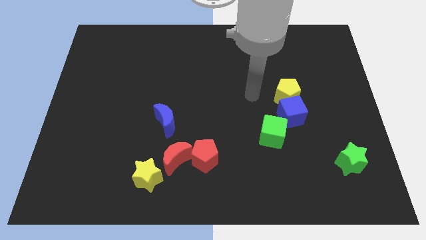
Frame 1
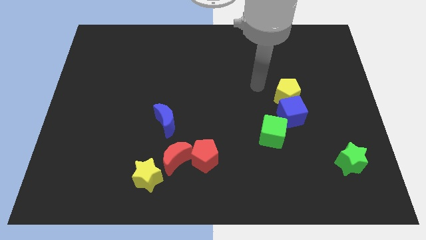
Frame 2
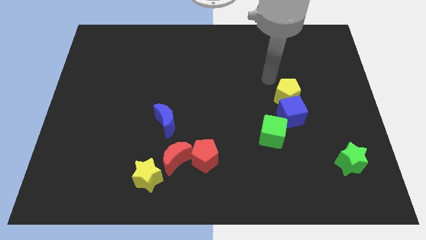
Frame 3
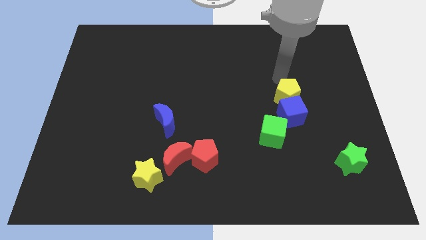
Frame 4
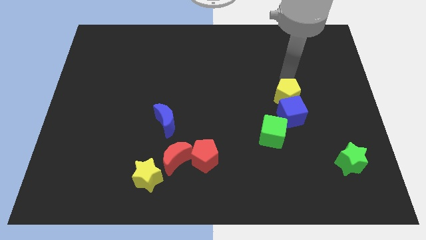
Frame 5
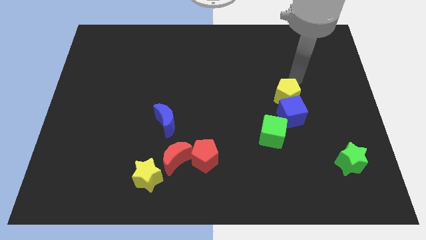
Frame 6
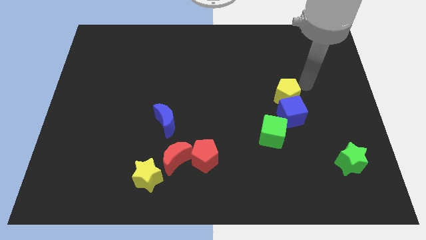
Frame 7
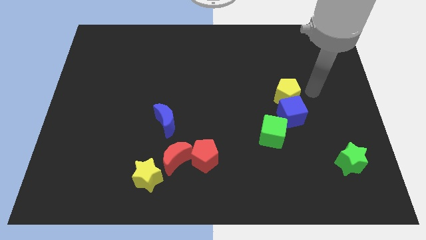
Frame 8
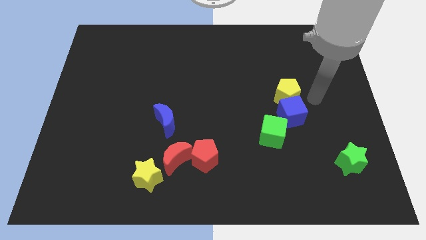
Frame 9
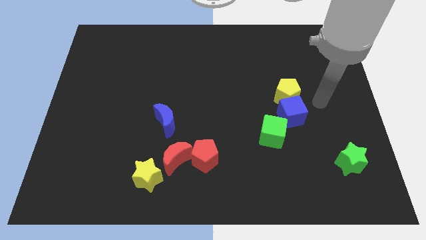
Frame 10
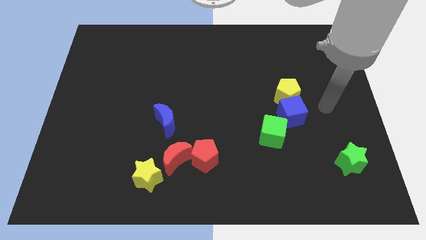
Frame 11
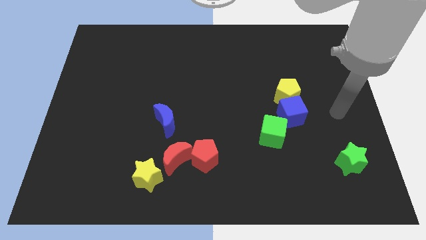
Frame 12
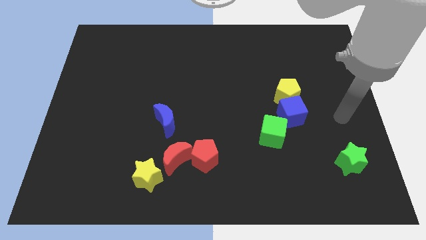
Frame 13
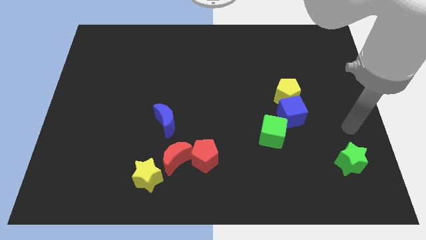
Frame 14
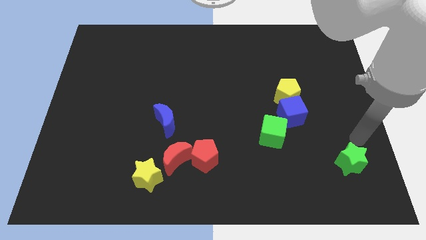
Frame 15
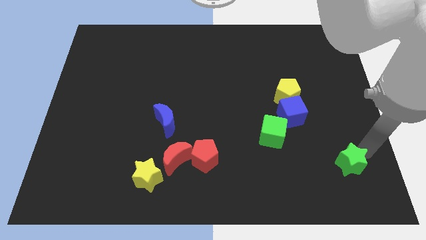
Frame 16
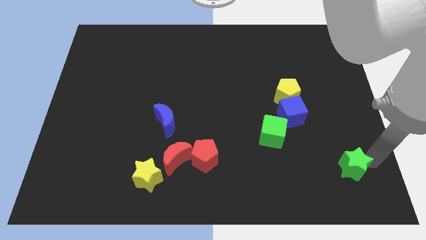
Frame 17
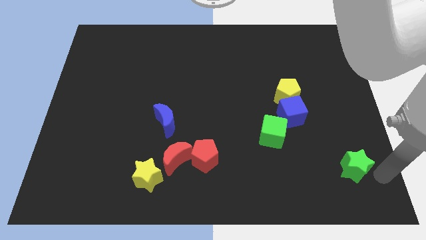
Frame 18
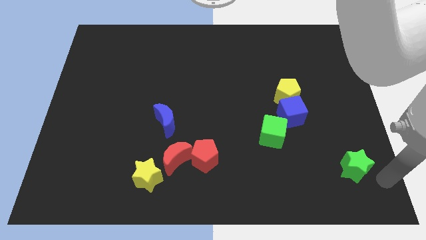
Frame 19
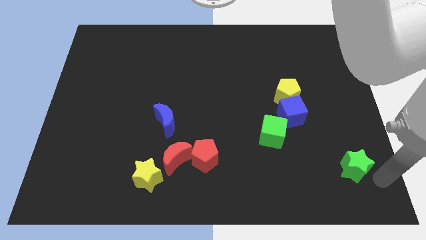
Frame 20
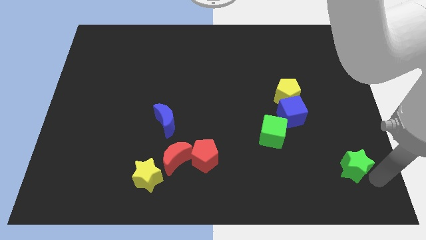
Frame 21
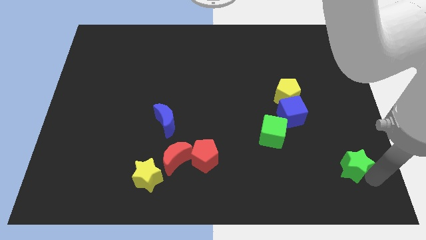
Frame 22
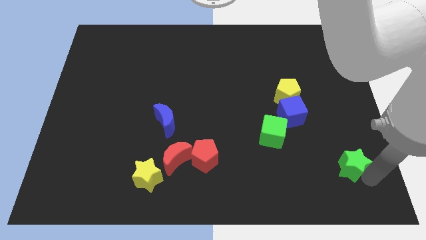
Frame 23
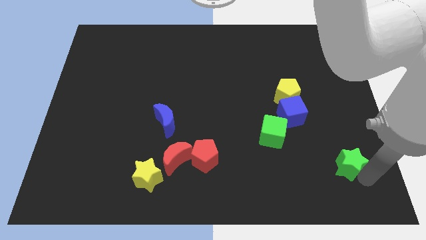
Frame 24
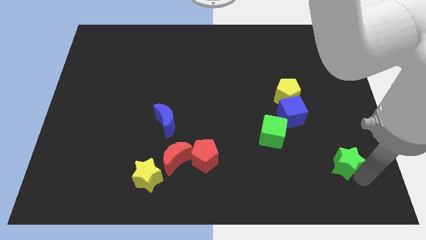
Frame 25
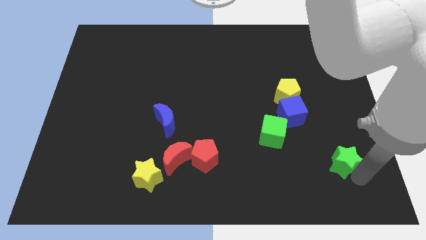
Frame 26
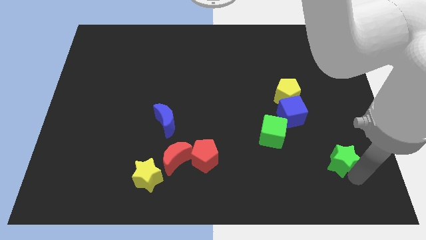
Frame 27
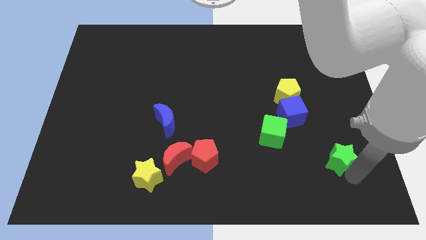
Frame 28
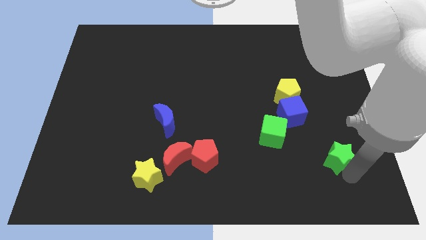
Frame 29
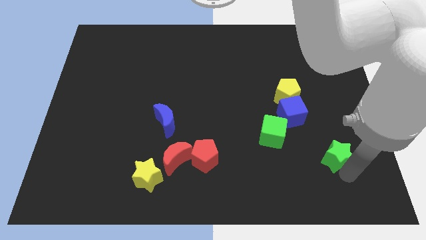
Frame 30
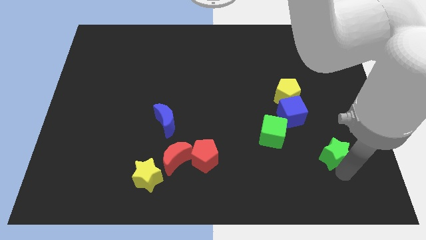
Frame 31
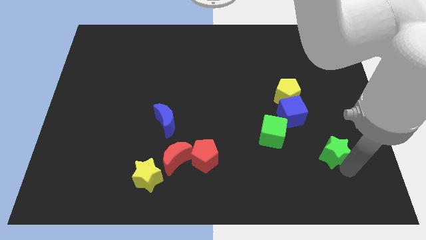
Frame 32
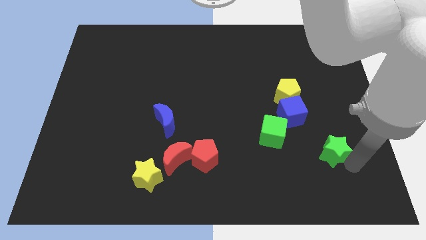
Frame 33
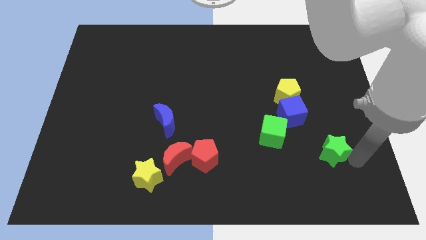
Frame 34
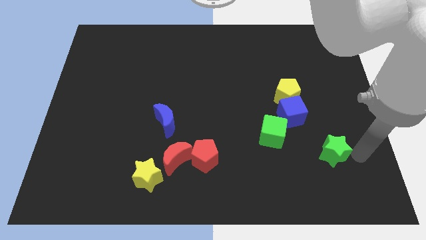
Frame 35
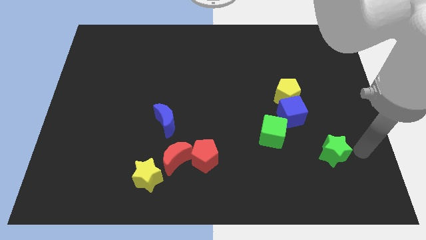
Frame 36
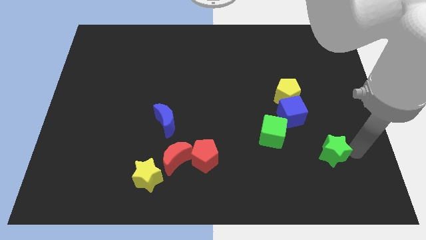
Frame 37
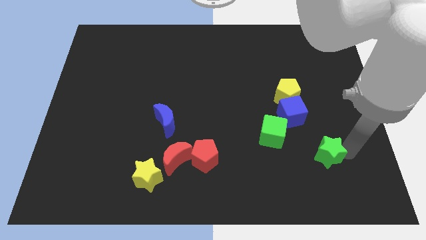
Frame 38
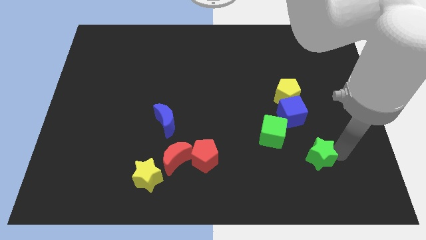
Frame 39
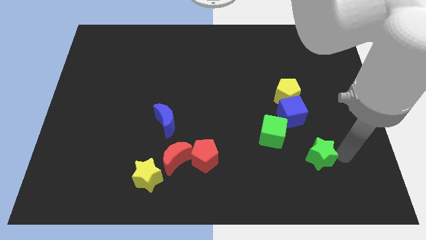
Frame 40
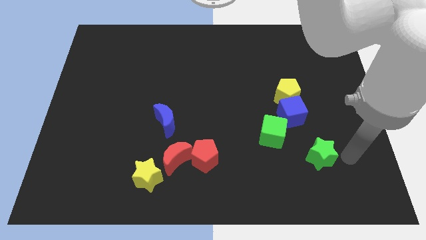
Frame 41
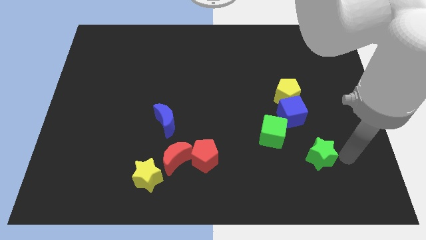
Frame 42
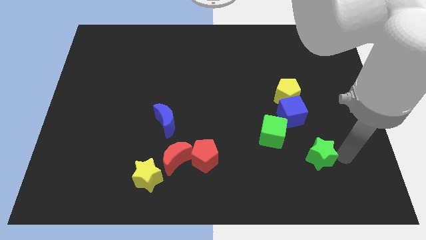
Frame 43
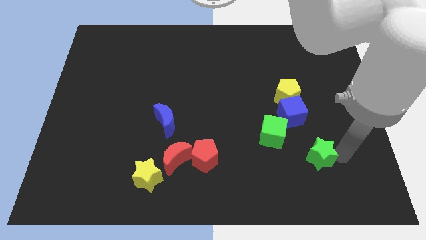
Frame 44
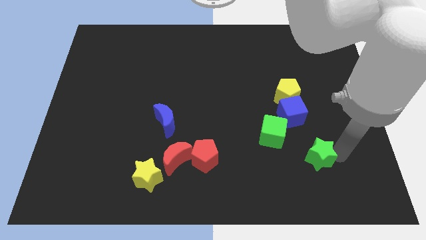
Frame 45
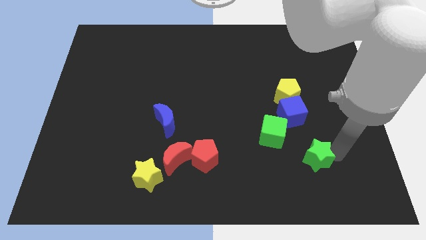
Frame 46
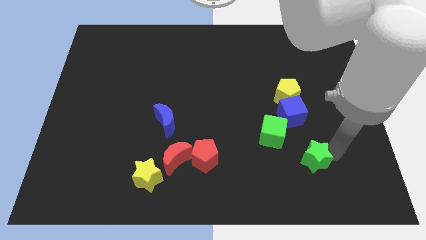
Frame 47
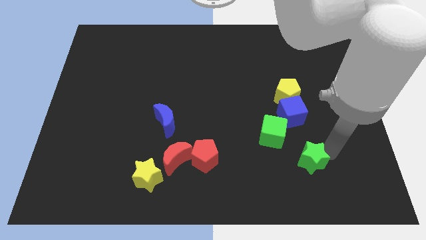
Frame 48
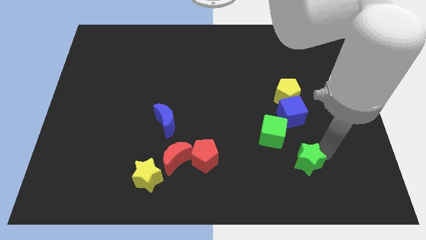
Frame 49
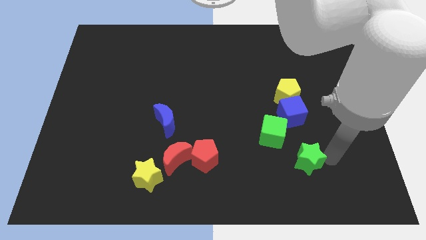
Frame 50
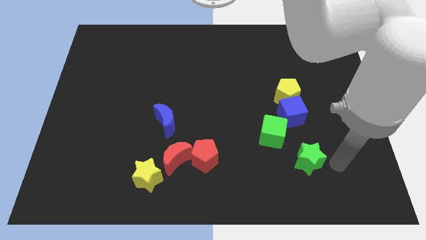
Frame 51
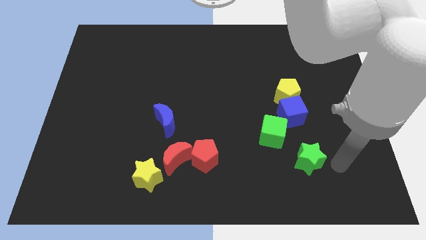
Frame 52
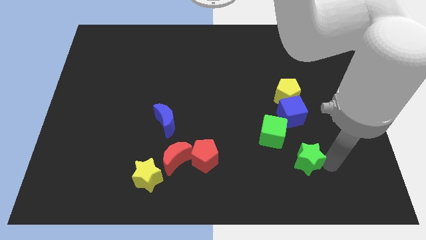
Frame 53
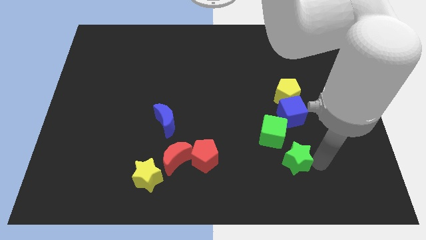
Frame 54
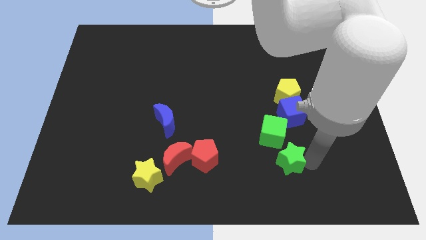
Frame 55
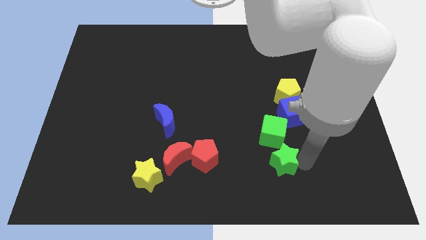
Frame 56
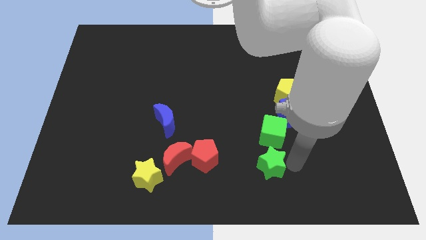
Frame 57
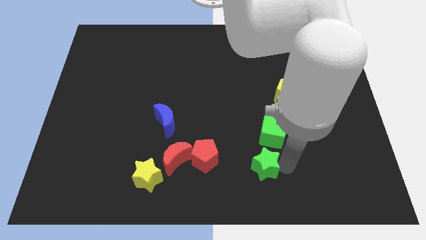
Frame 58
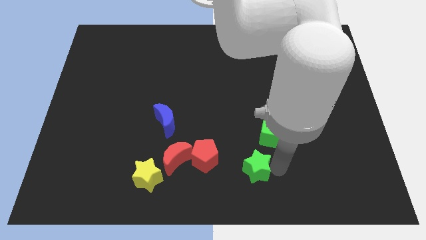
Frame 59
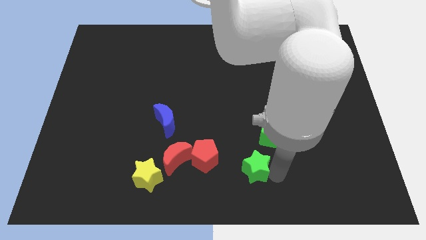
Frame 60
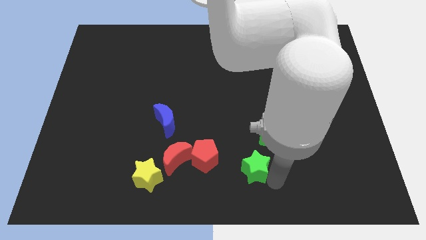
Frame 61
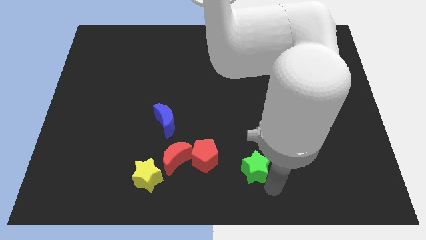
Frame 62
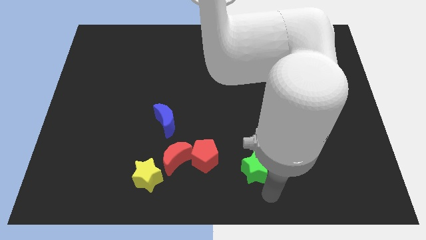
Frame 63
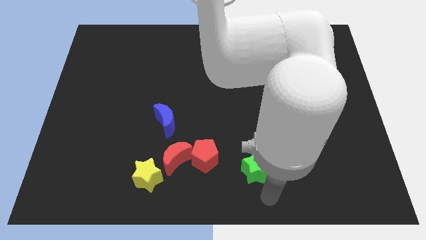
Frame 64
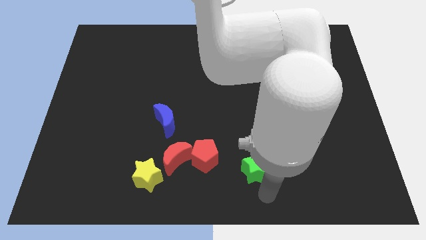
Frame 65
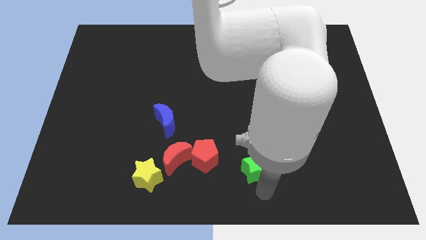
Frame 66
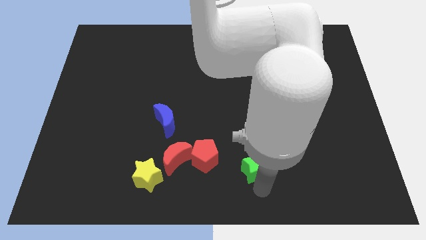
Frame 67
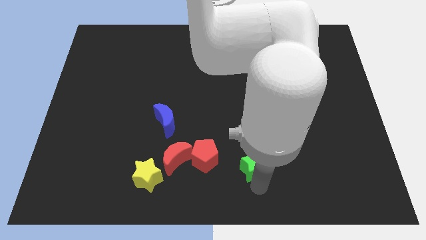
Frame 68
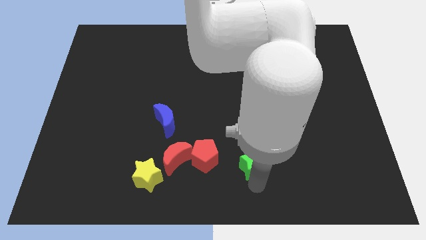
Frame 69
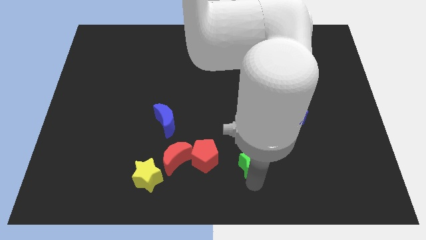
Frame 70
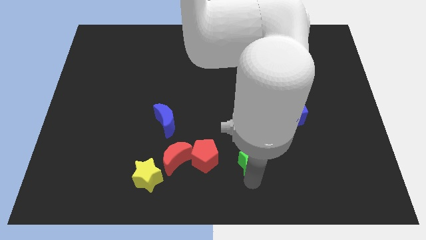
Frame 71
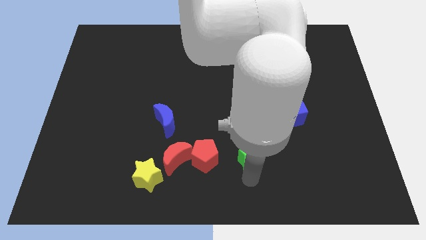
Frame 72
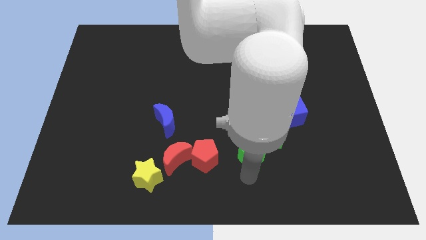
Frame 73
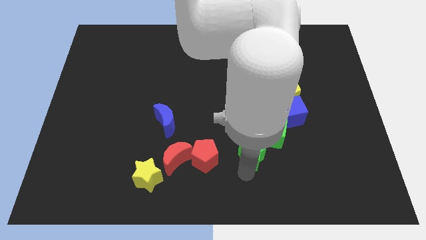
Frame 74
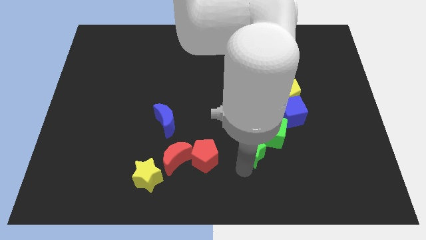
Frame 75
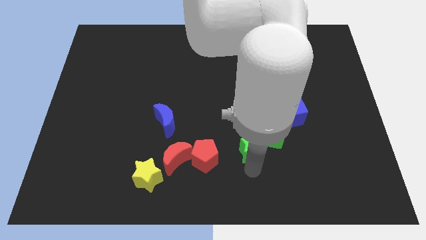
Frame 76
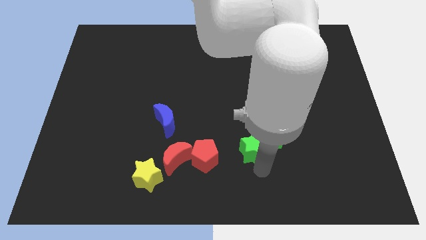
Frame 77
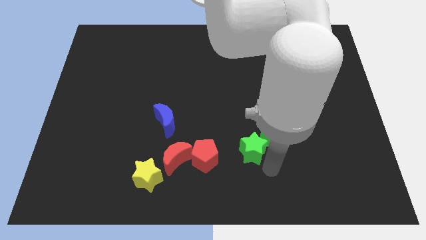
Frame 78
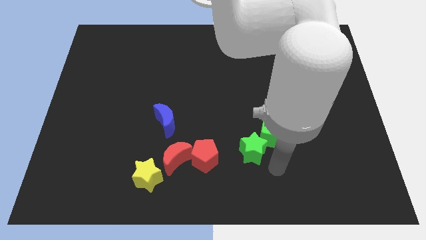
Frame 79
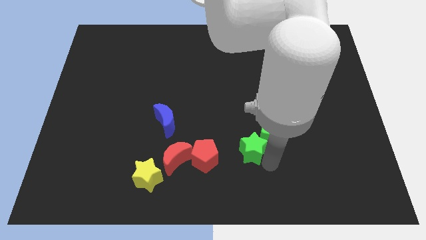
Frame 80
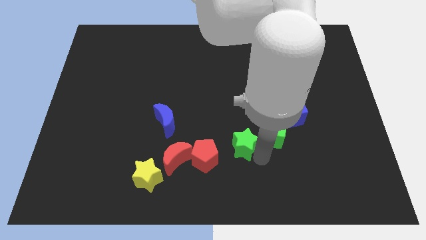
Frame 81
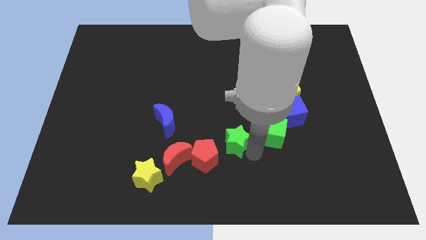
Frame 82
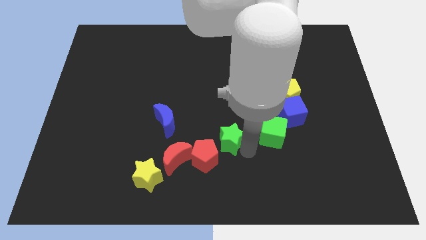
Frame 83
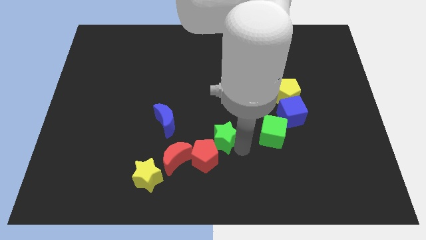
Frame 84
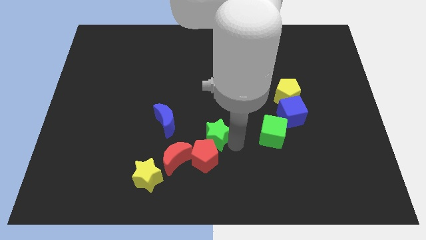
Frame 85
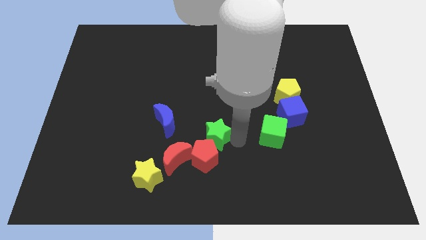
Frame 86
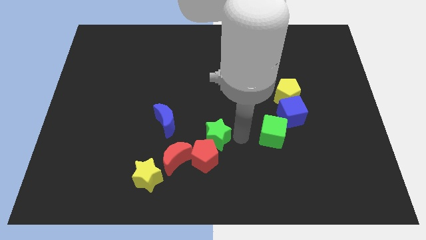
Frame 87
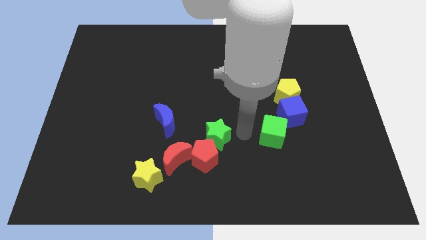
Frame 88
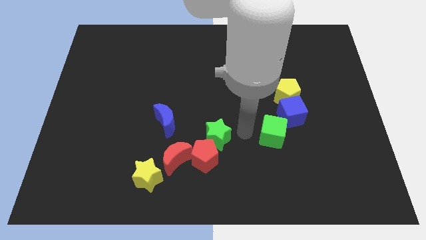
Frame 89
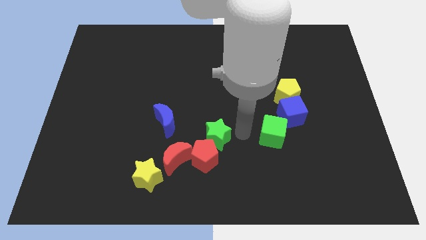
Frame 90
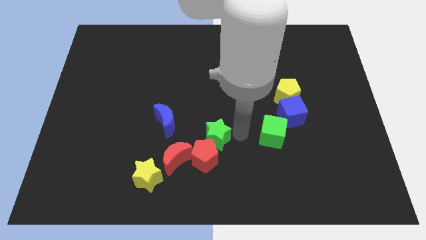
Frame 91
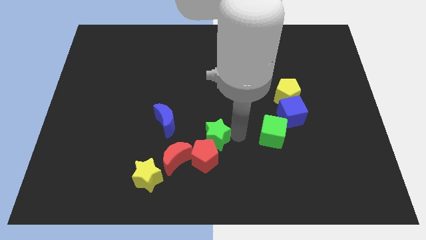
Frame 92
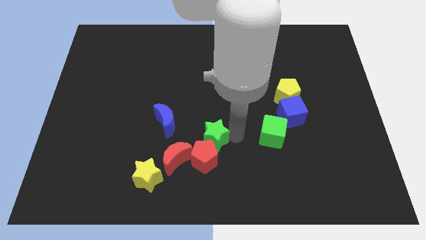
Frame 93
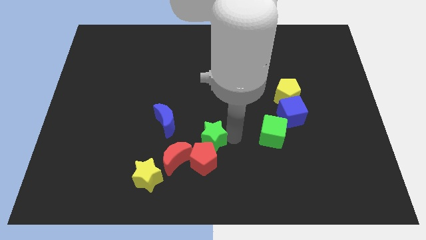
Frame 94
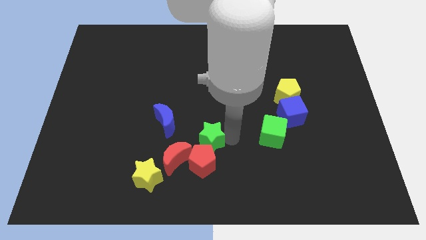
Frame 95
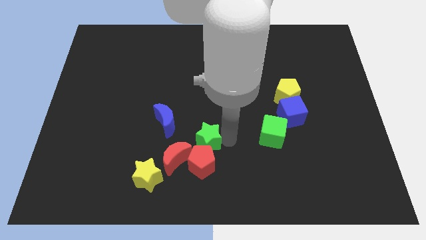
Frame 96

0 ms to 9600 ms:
slide the green star to the top left of the red pentagon
